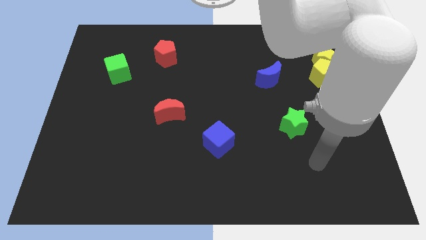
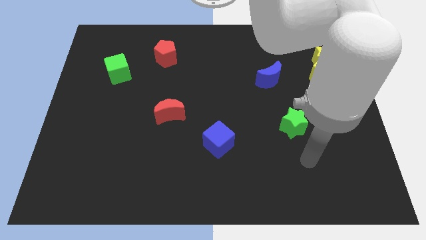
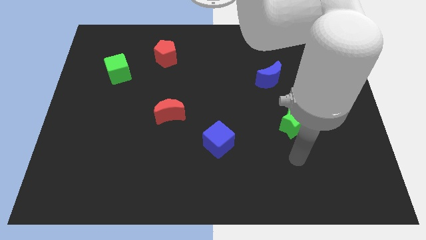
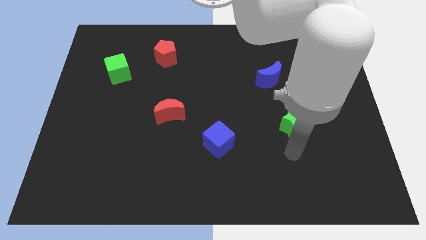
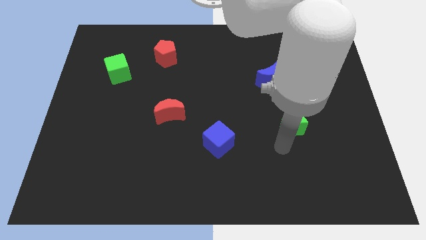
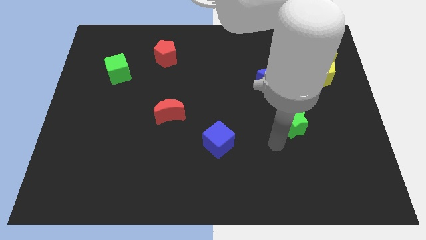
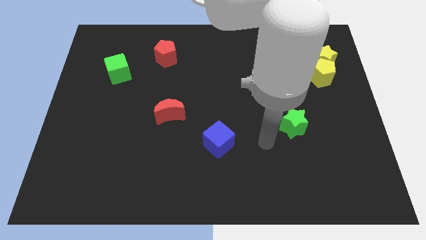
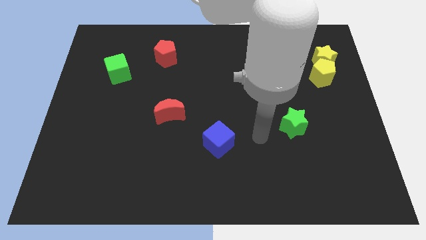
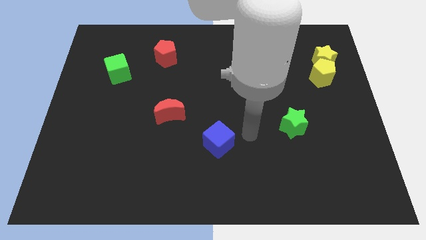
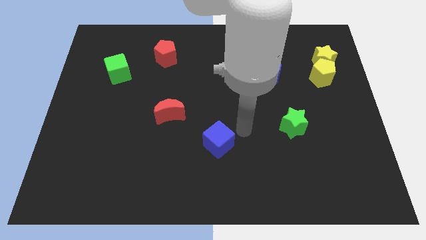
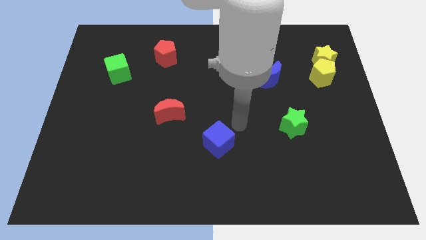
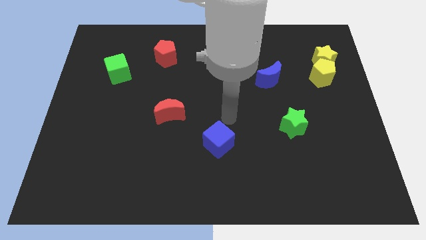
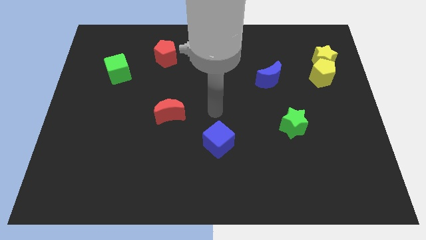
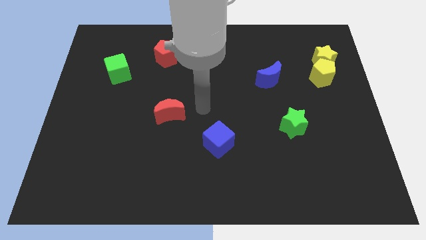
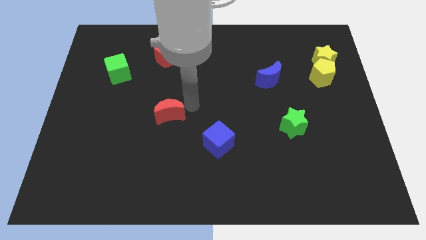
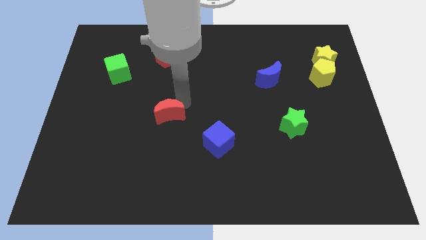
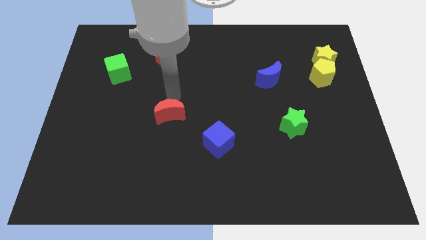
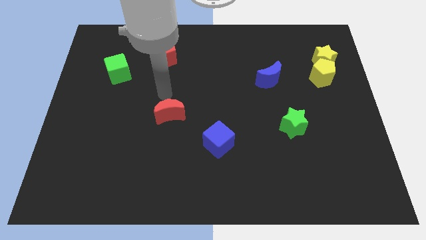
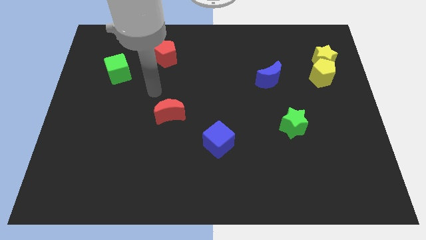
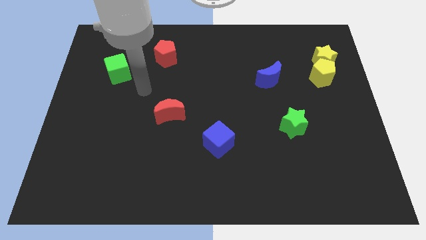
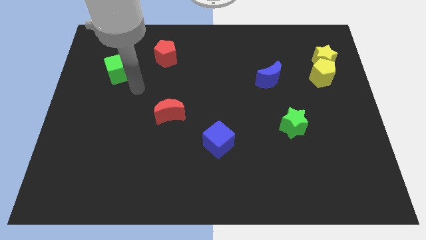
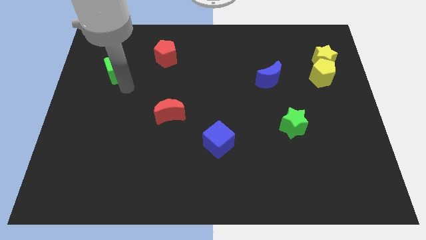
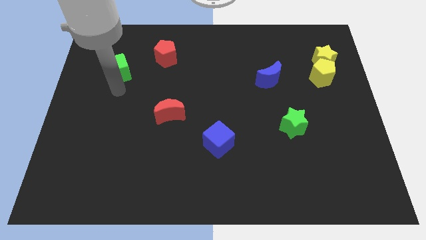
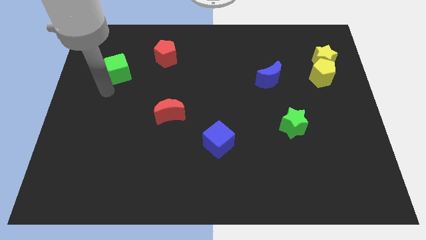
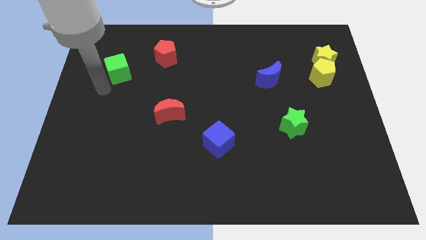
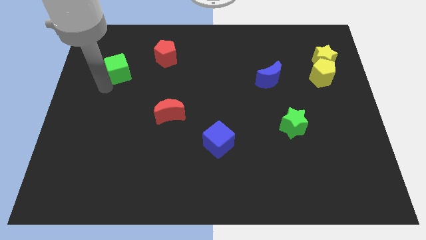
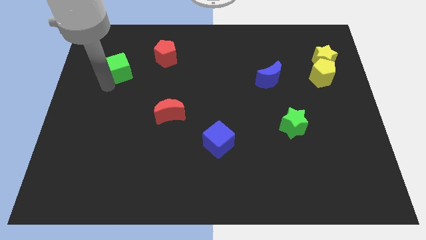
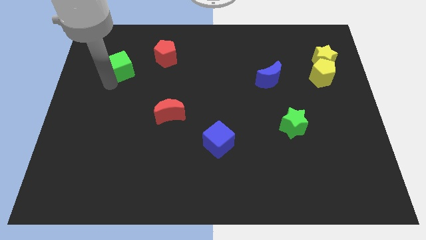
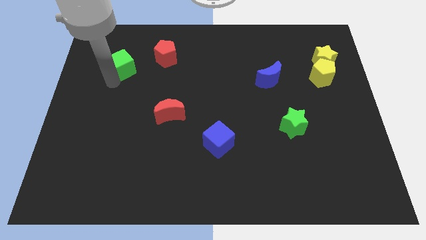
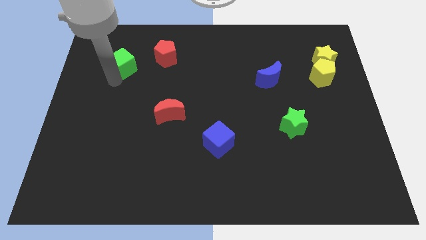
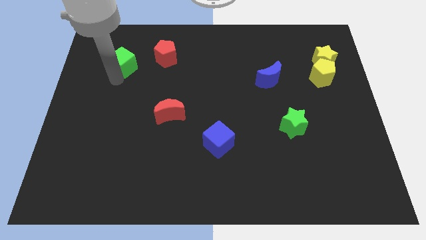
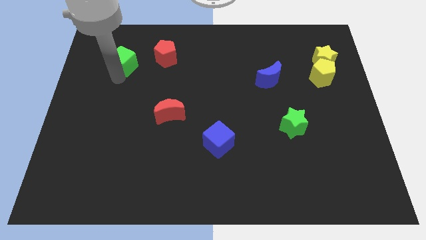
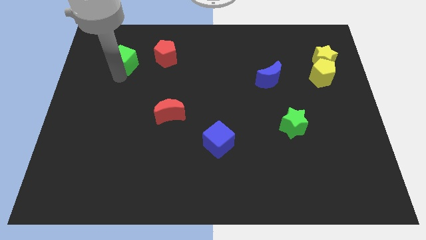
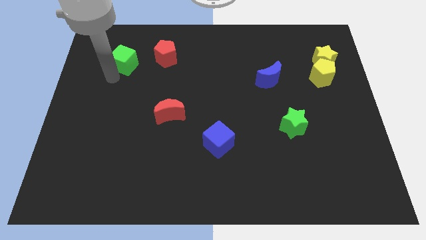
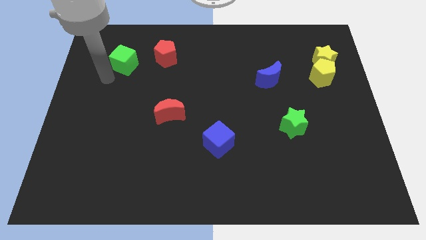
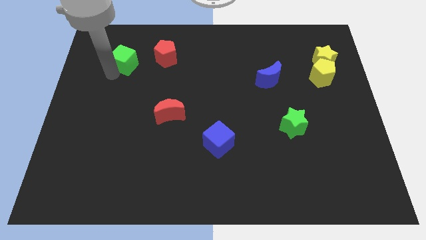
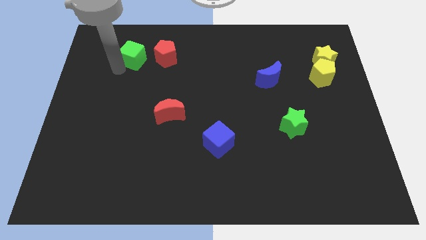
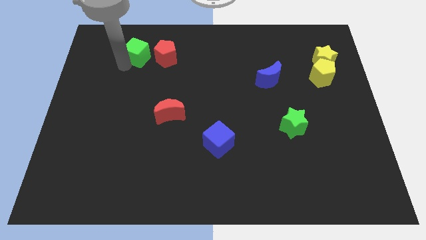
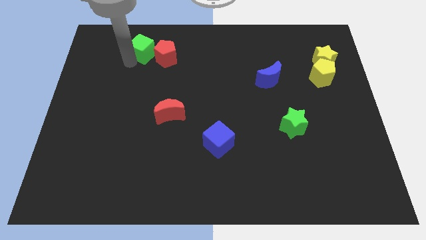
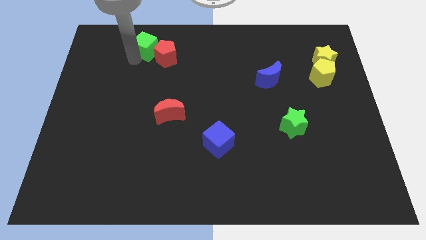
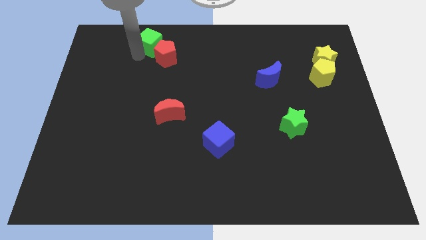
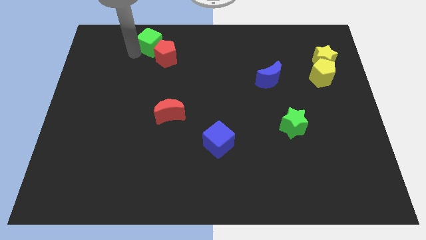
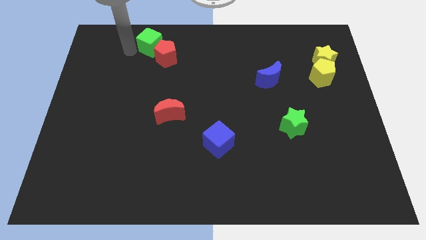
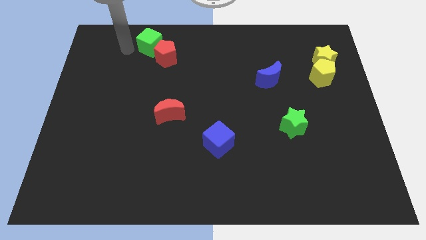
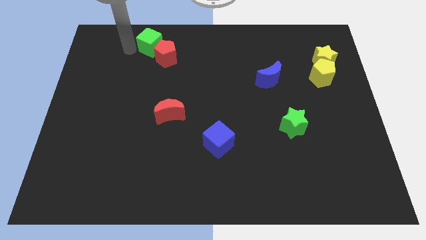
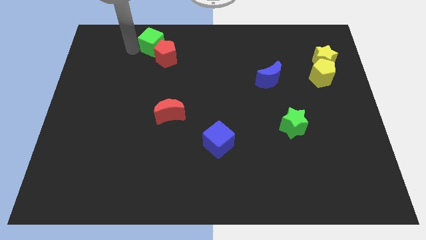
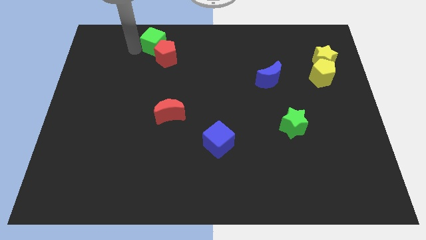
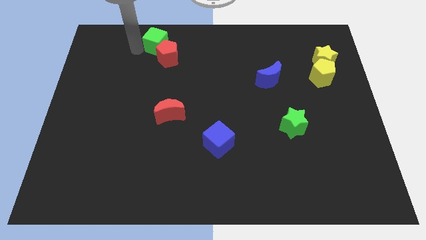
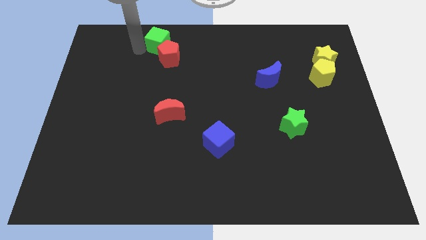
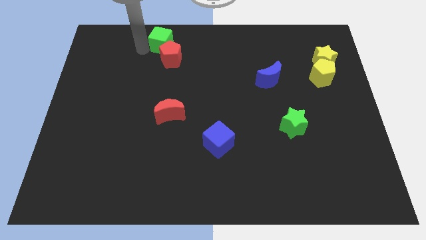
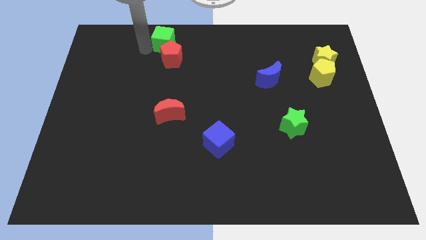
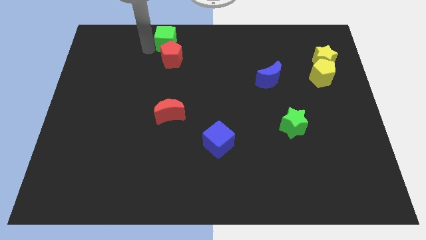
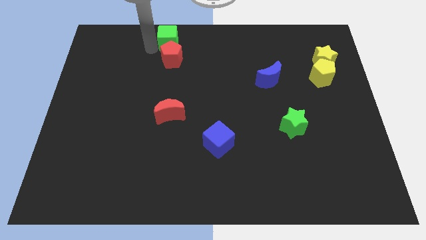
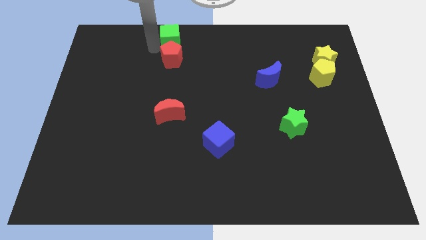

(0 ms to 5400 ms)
put the green cube to the top side

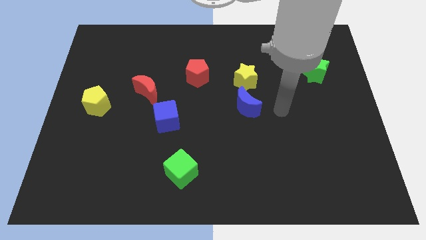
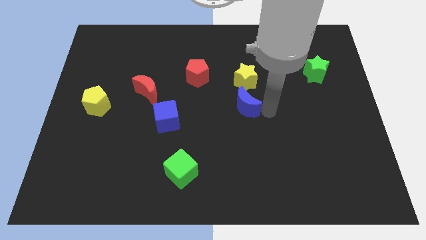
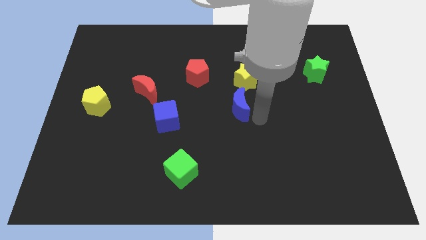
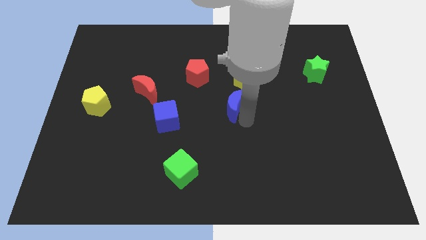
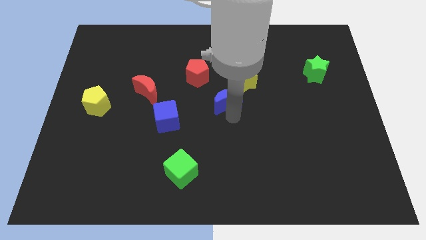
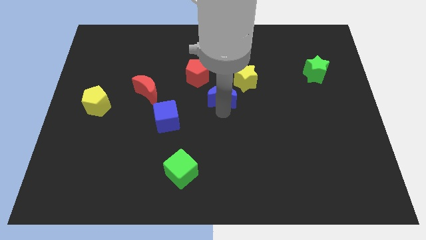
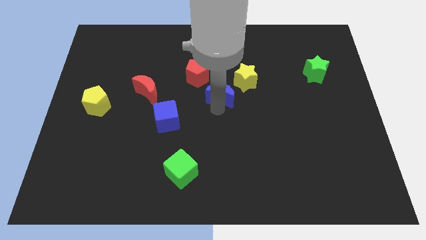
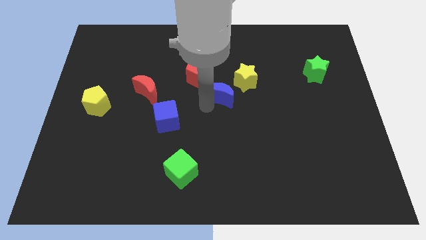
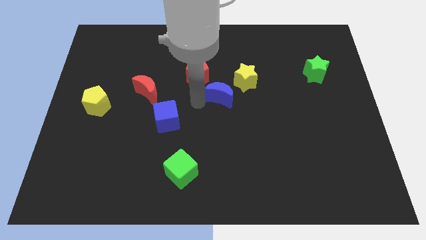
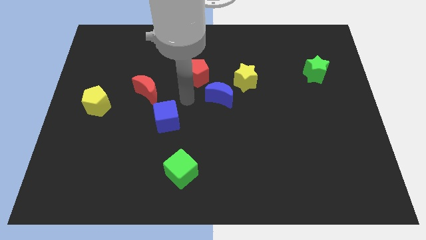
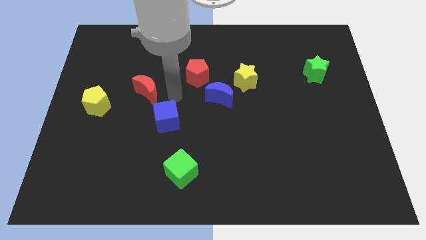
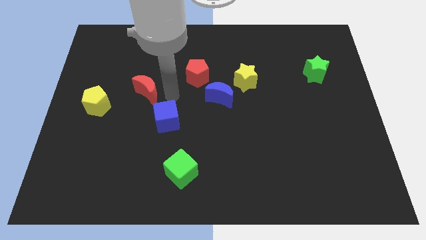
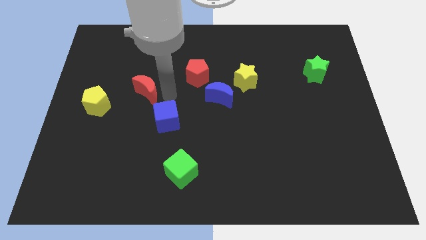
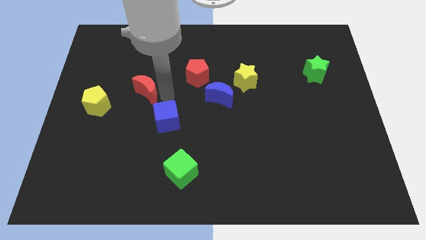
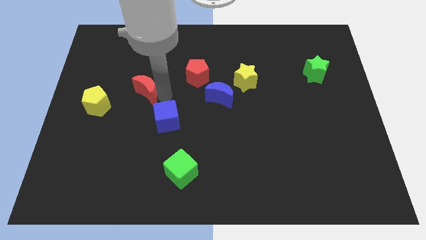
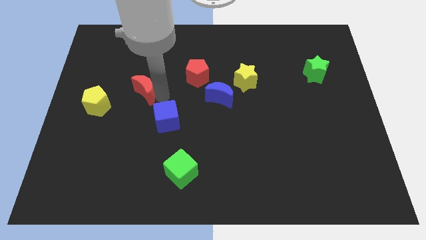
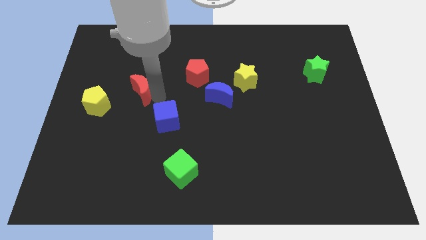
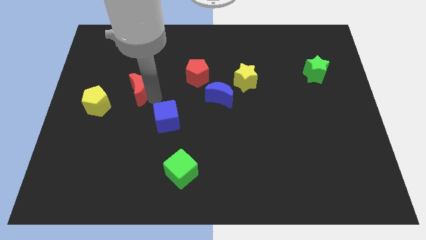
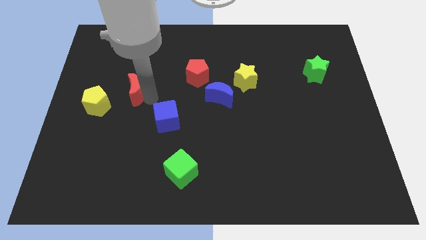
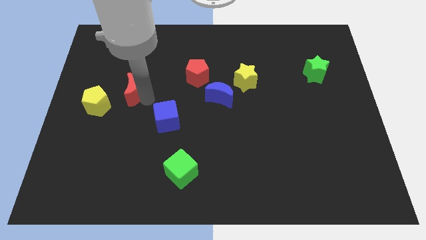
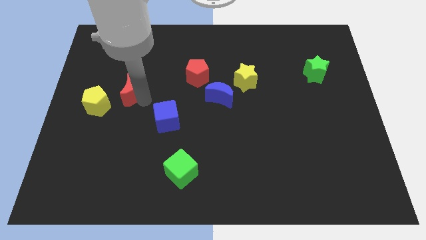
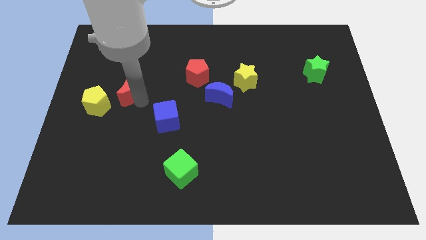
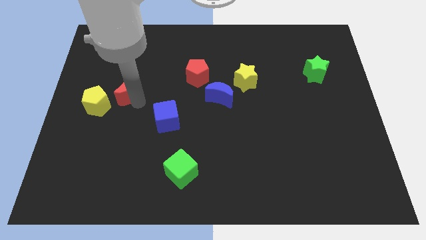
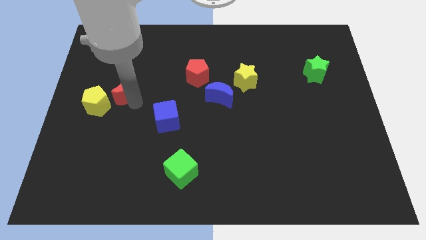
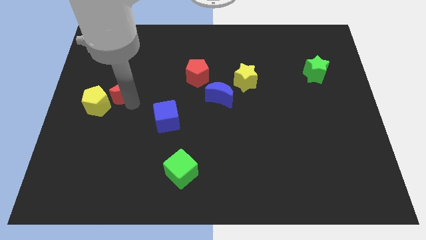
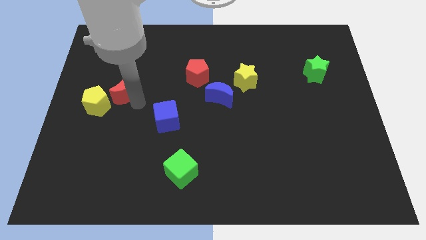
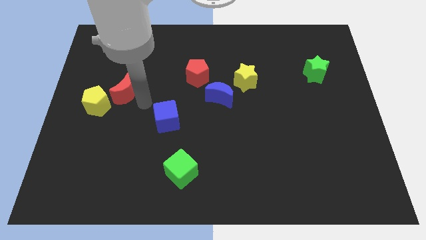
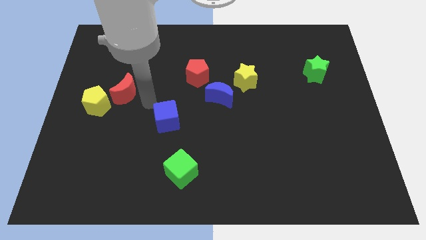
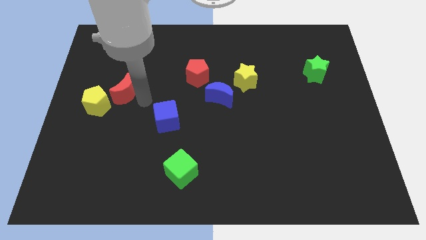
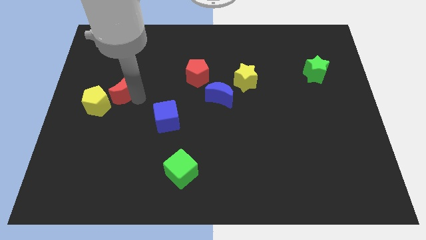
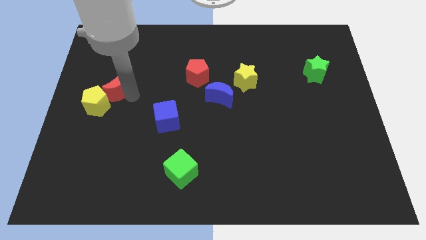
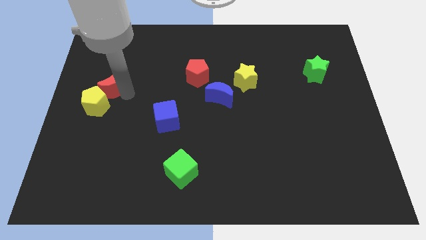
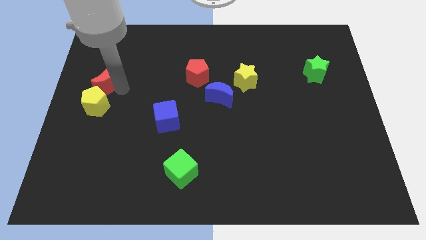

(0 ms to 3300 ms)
push the red moon to the center left
